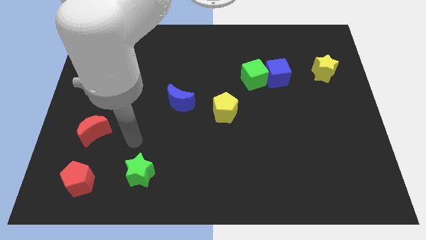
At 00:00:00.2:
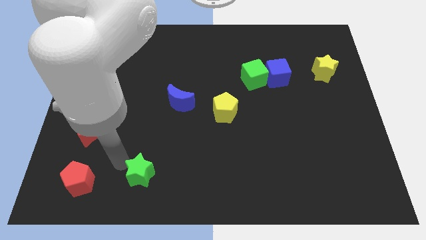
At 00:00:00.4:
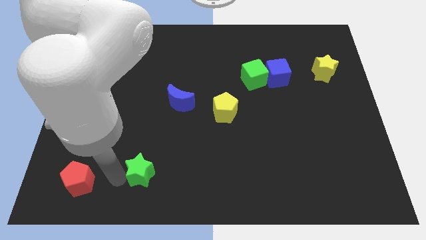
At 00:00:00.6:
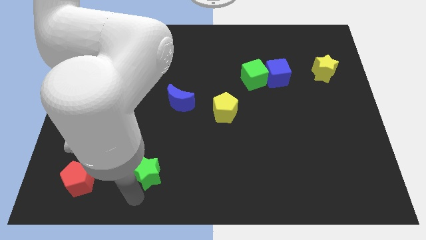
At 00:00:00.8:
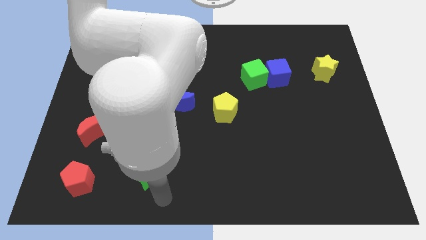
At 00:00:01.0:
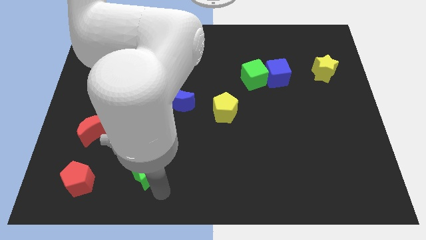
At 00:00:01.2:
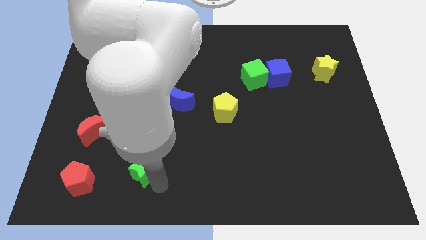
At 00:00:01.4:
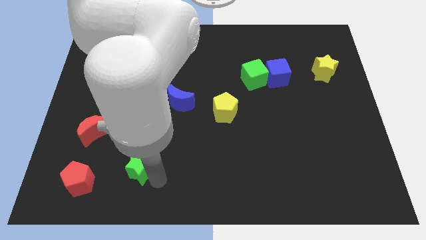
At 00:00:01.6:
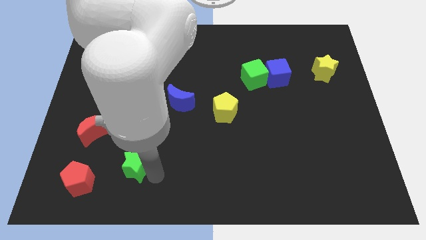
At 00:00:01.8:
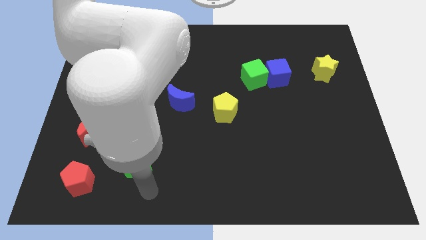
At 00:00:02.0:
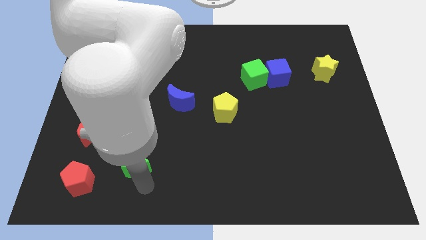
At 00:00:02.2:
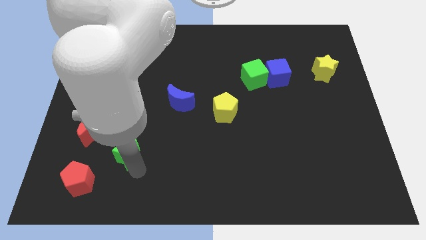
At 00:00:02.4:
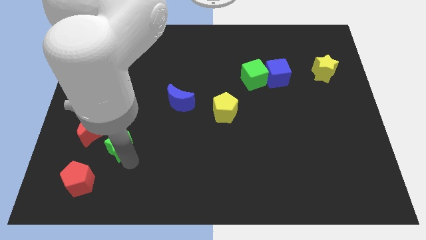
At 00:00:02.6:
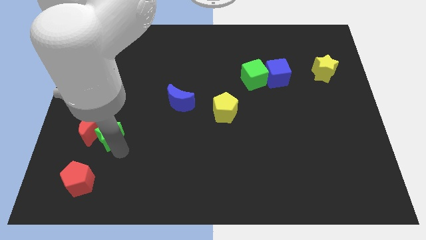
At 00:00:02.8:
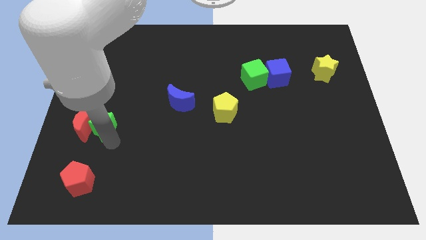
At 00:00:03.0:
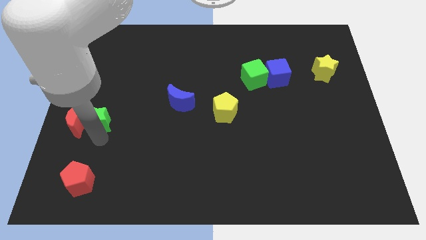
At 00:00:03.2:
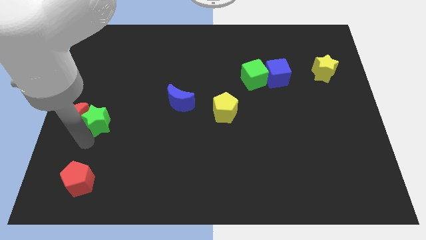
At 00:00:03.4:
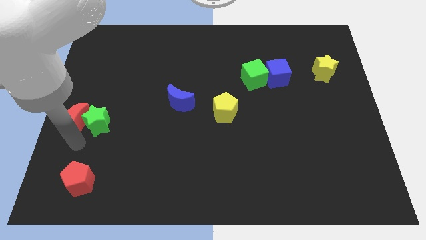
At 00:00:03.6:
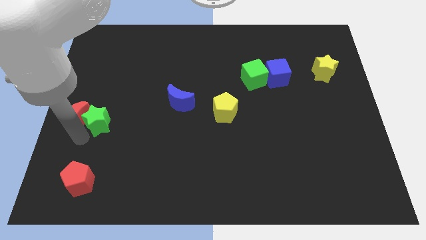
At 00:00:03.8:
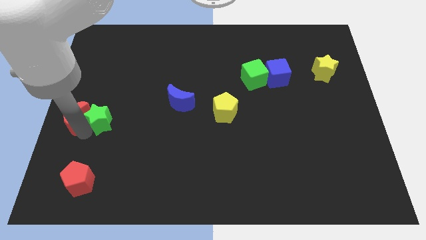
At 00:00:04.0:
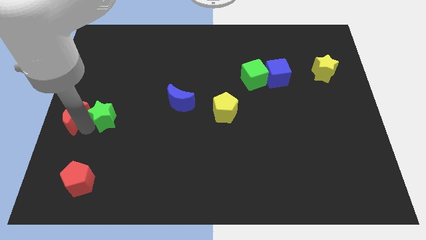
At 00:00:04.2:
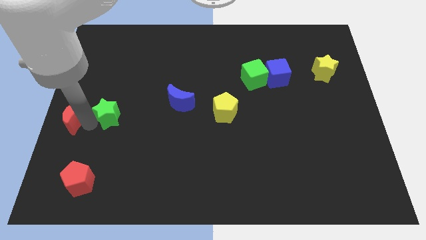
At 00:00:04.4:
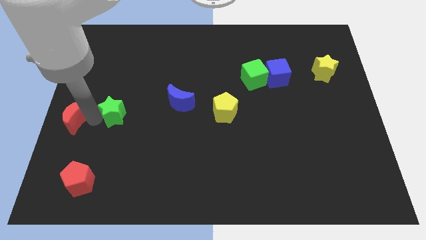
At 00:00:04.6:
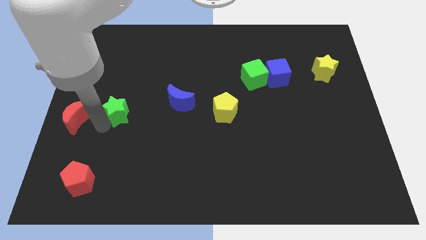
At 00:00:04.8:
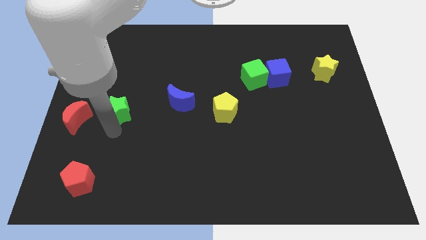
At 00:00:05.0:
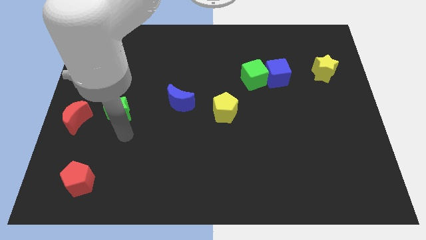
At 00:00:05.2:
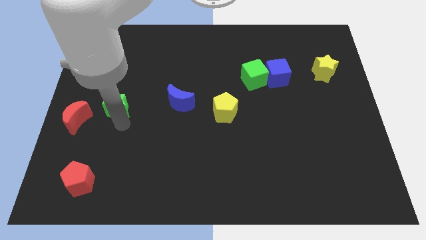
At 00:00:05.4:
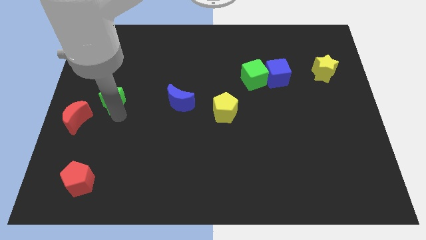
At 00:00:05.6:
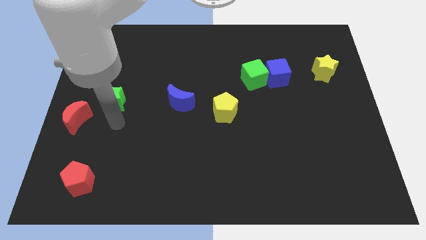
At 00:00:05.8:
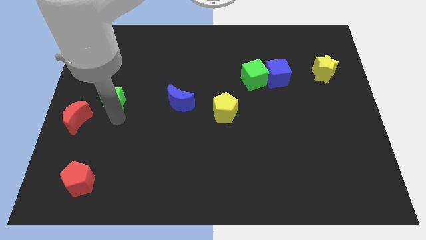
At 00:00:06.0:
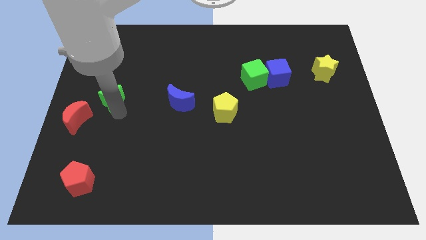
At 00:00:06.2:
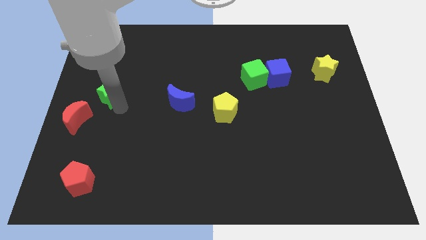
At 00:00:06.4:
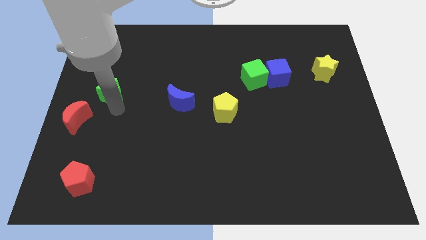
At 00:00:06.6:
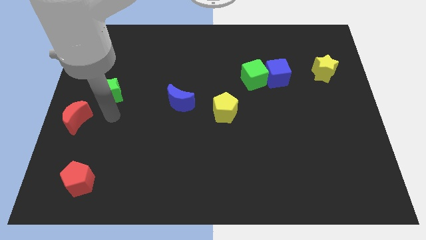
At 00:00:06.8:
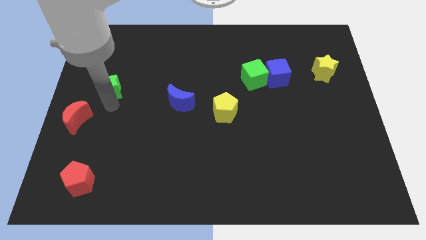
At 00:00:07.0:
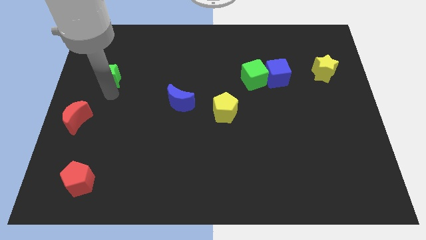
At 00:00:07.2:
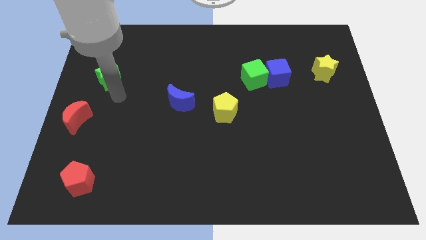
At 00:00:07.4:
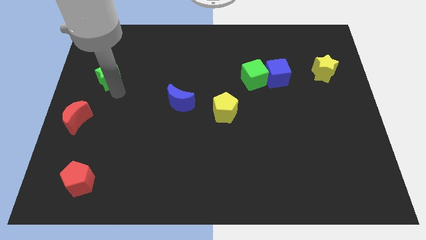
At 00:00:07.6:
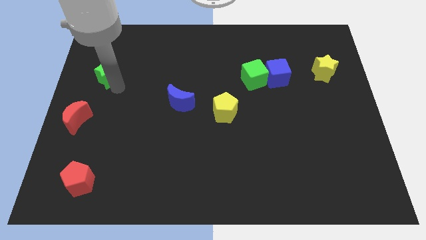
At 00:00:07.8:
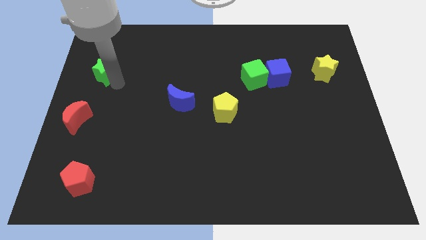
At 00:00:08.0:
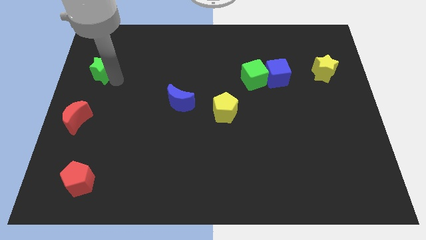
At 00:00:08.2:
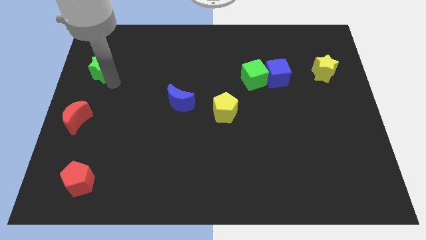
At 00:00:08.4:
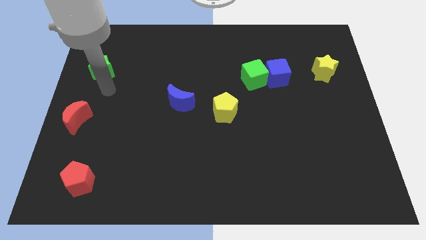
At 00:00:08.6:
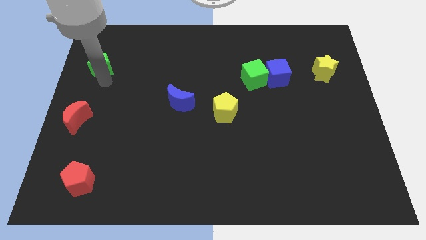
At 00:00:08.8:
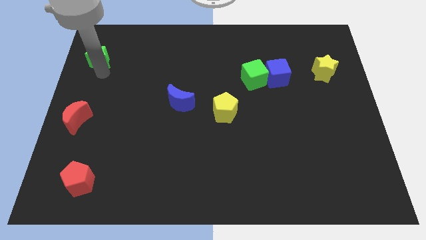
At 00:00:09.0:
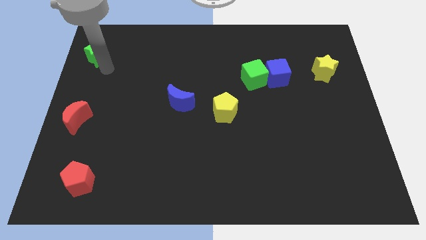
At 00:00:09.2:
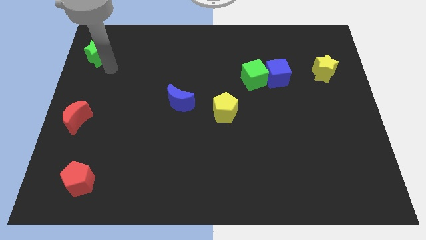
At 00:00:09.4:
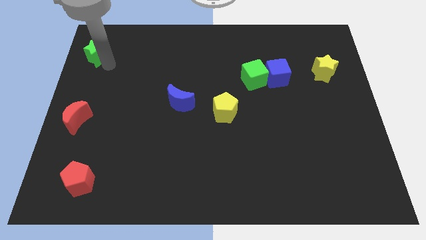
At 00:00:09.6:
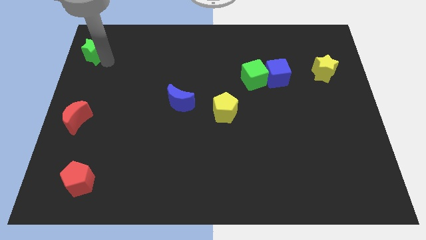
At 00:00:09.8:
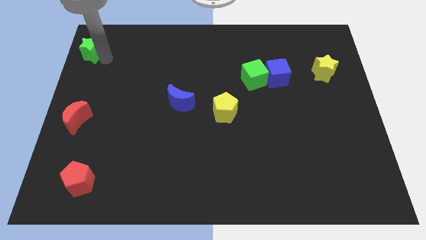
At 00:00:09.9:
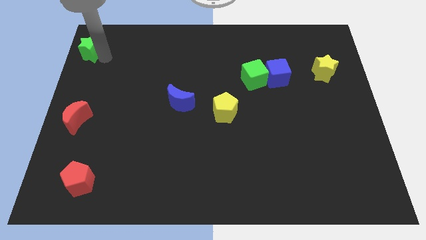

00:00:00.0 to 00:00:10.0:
move the green star to the top left of the board

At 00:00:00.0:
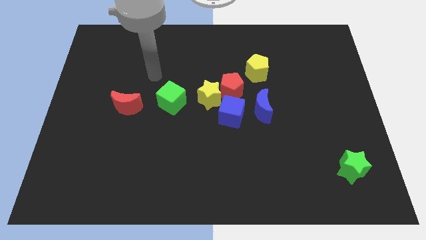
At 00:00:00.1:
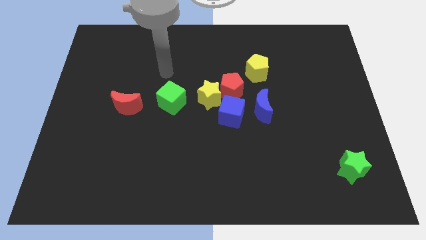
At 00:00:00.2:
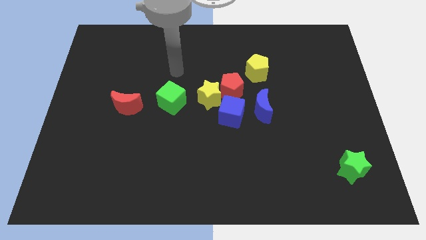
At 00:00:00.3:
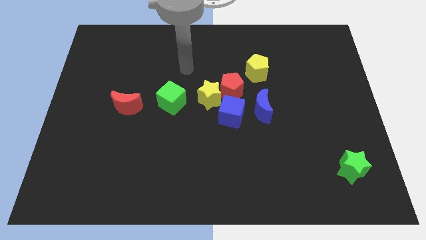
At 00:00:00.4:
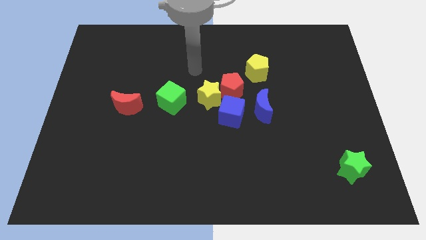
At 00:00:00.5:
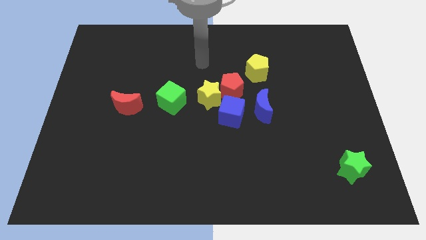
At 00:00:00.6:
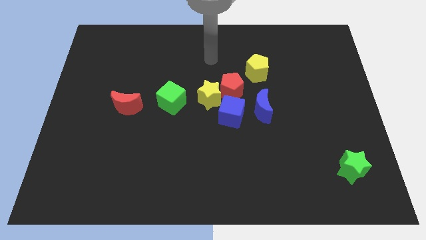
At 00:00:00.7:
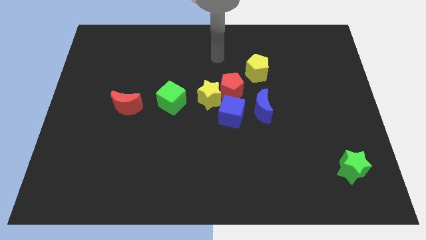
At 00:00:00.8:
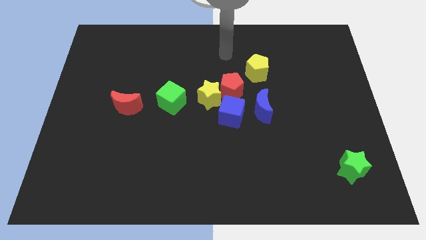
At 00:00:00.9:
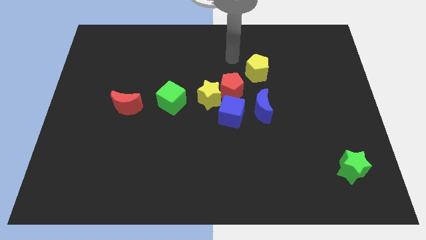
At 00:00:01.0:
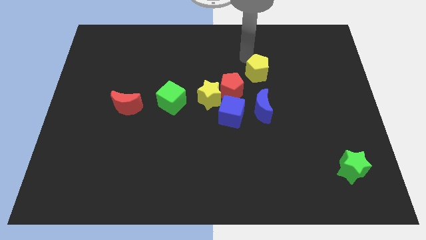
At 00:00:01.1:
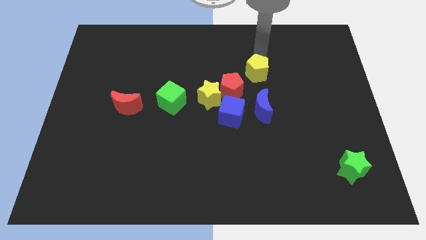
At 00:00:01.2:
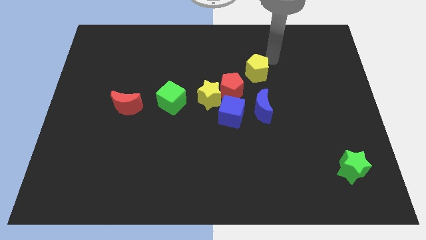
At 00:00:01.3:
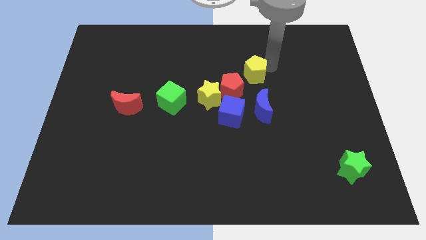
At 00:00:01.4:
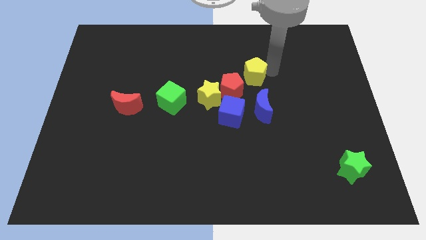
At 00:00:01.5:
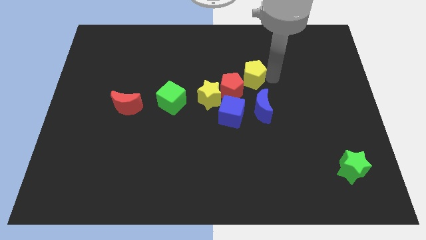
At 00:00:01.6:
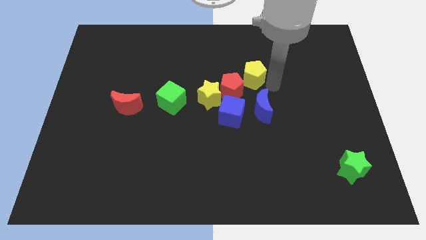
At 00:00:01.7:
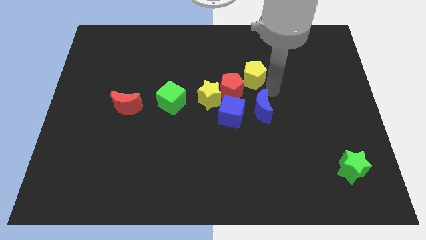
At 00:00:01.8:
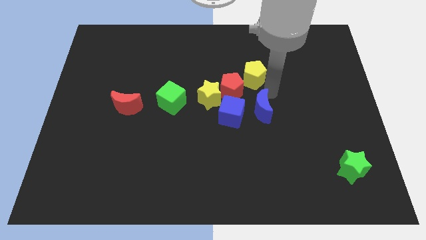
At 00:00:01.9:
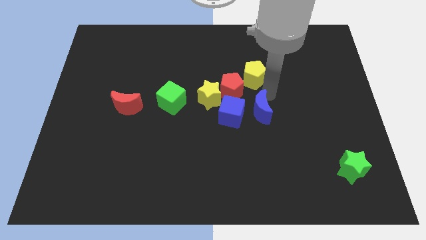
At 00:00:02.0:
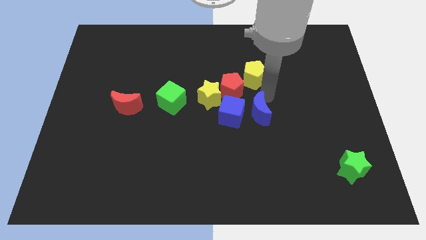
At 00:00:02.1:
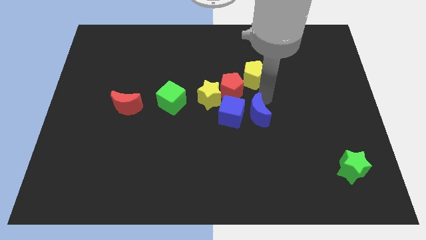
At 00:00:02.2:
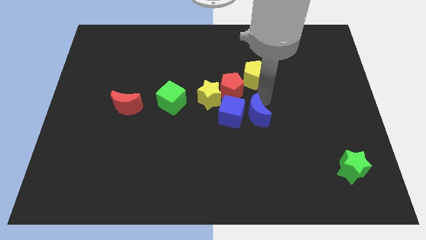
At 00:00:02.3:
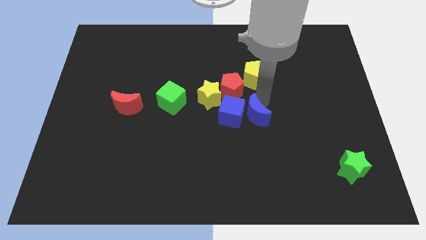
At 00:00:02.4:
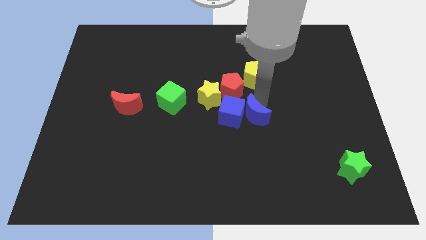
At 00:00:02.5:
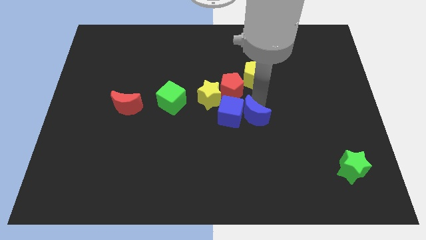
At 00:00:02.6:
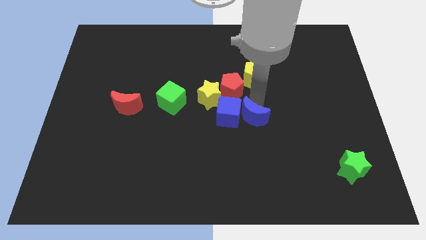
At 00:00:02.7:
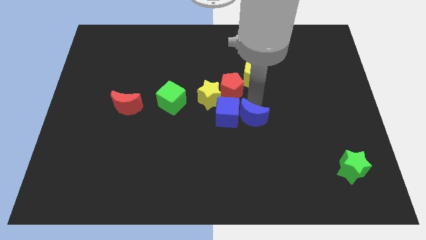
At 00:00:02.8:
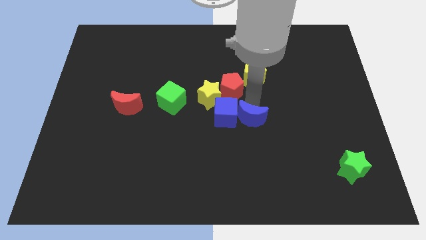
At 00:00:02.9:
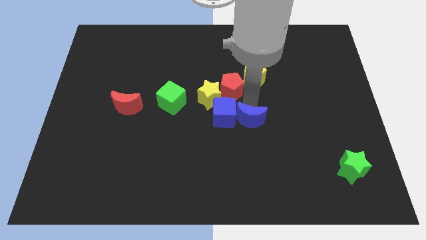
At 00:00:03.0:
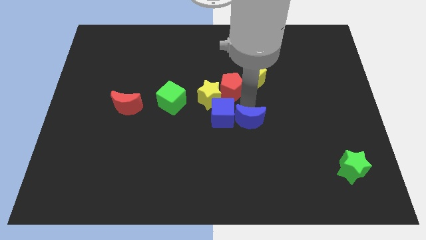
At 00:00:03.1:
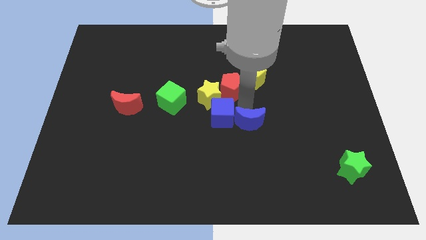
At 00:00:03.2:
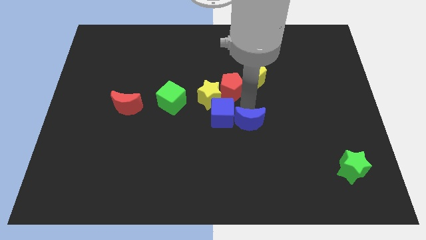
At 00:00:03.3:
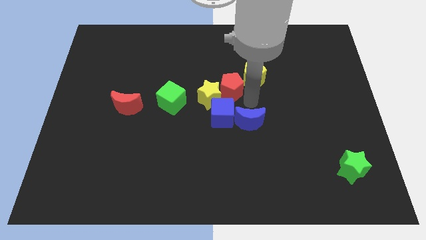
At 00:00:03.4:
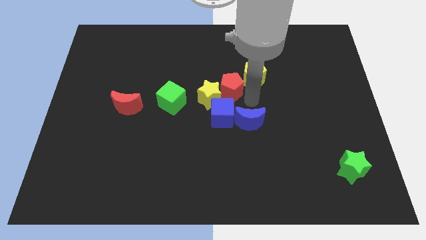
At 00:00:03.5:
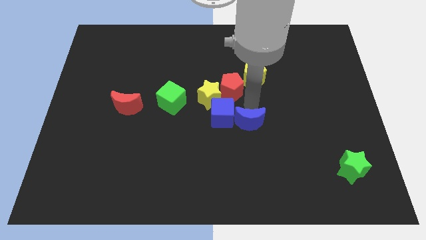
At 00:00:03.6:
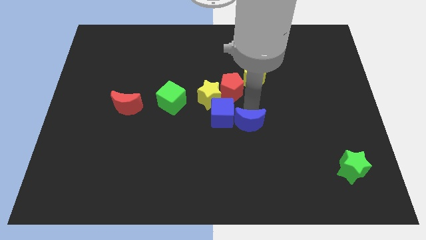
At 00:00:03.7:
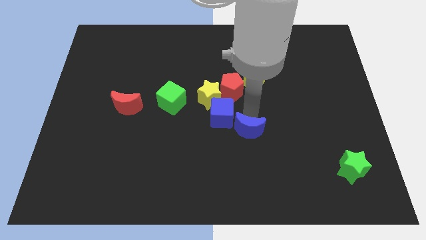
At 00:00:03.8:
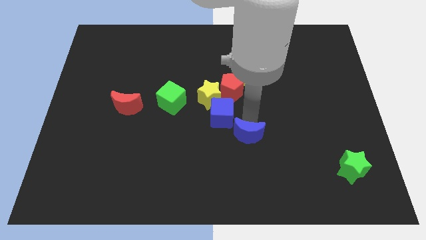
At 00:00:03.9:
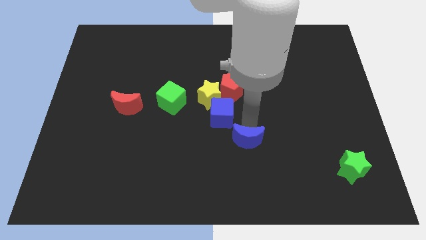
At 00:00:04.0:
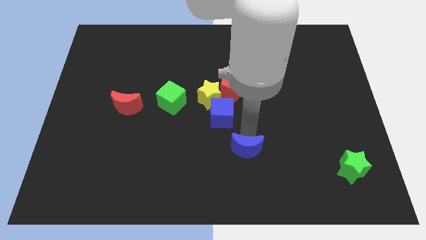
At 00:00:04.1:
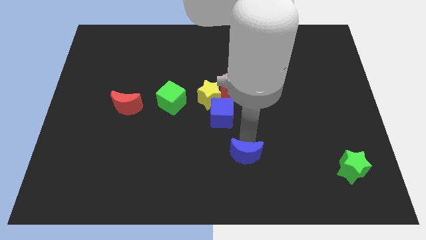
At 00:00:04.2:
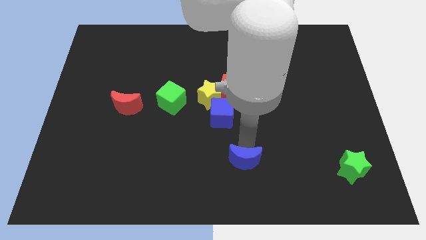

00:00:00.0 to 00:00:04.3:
slide the blue moon to the bottom side
